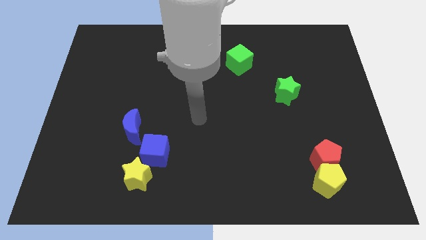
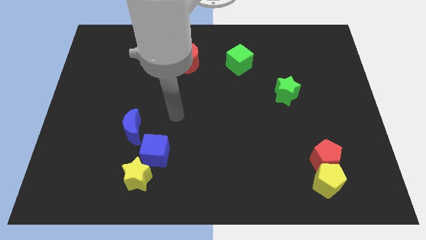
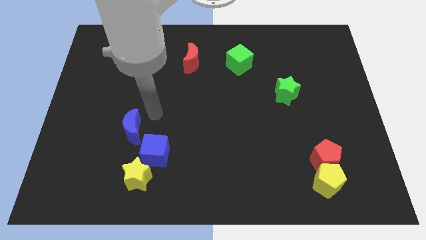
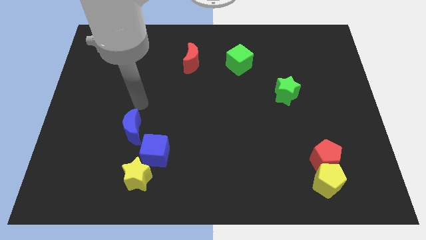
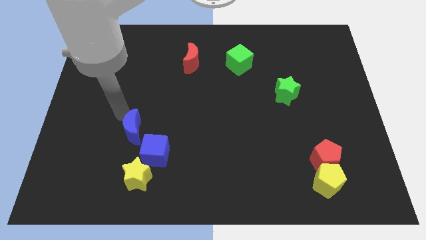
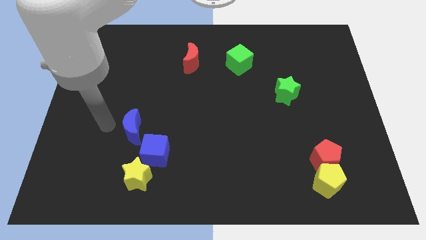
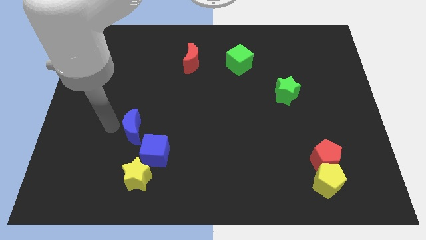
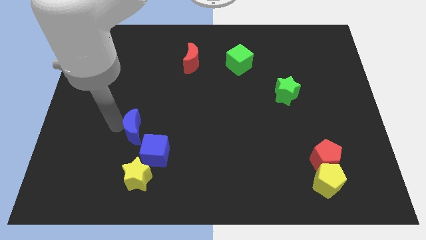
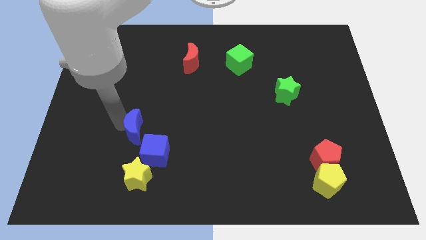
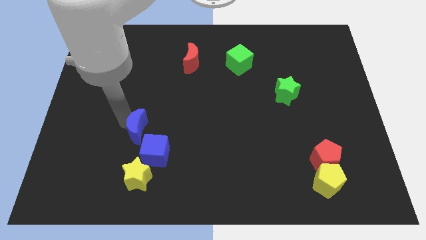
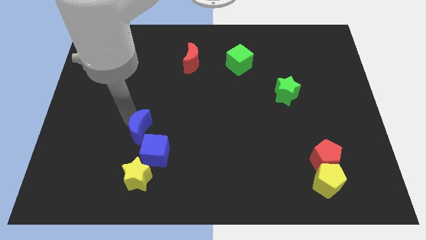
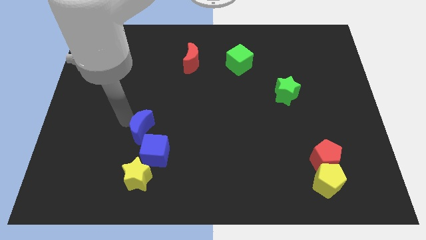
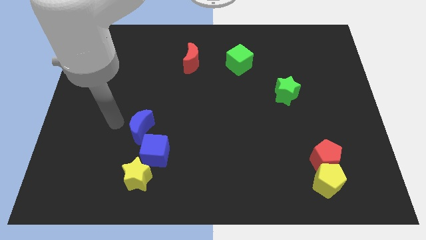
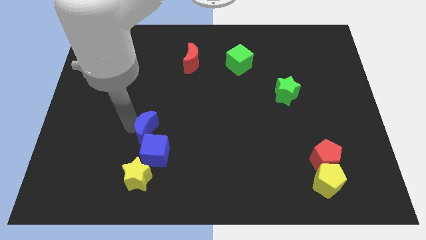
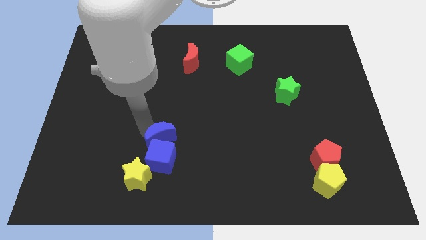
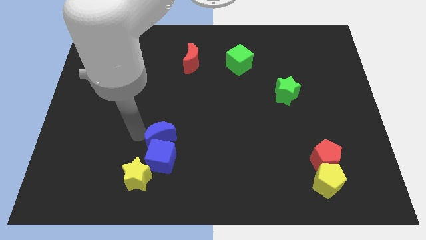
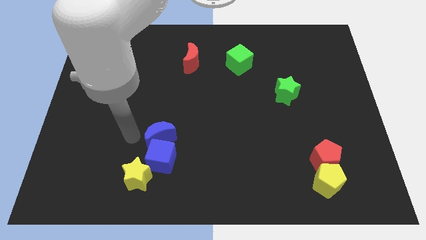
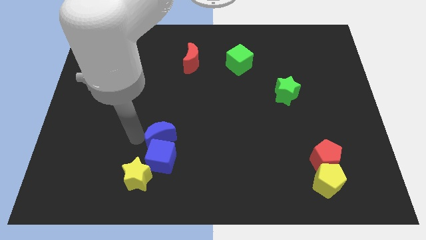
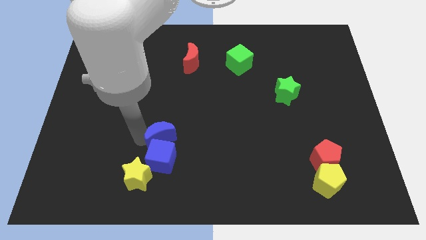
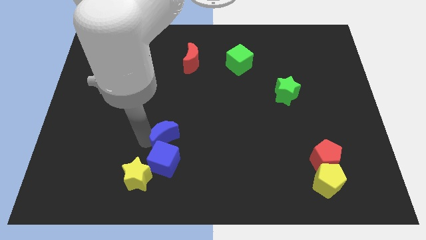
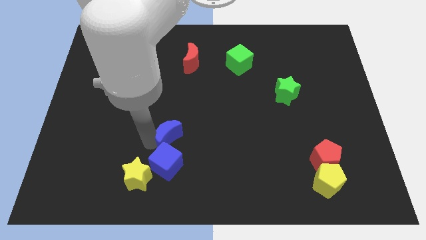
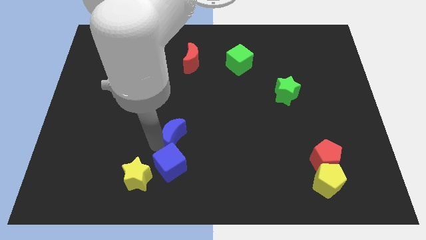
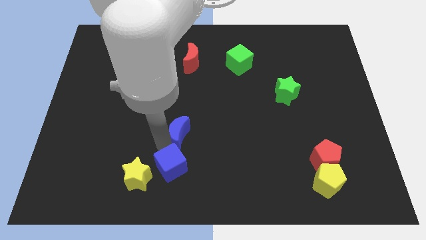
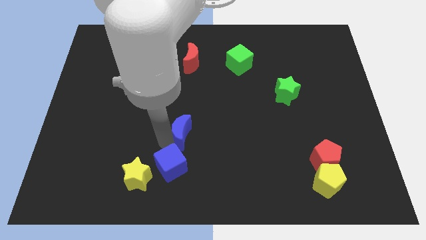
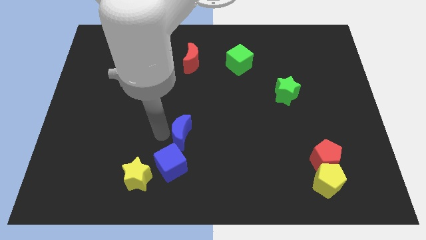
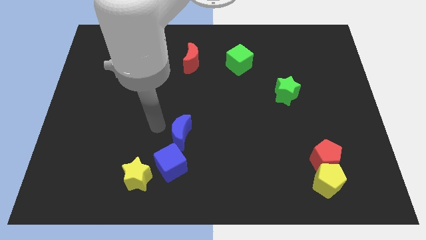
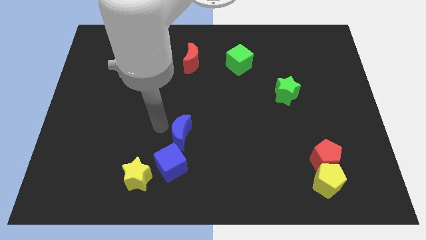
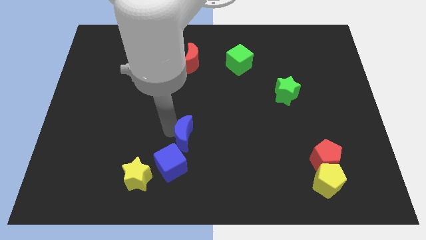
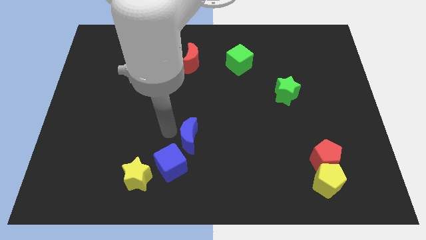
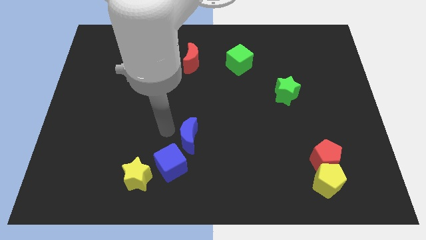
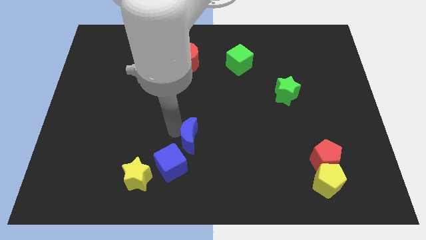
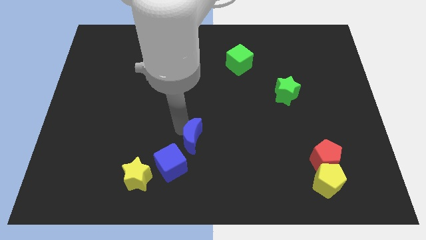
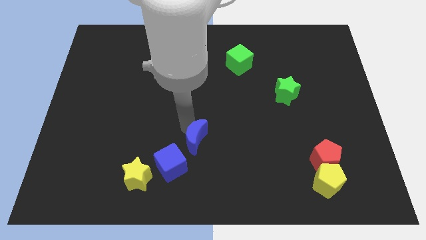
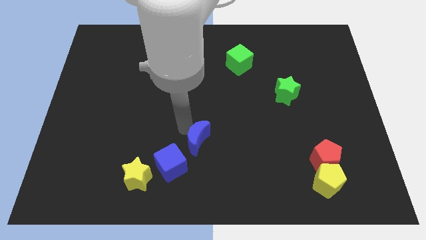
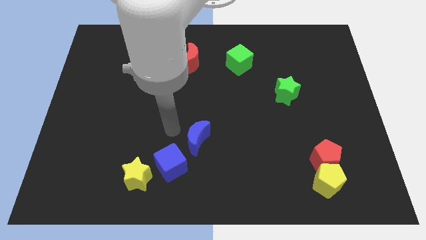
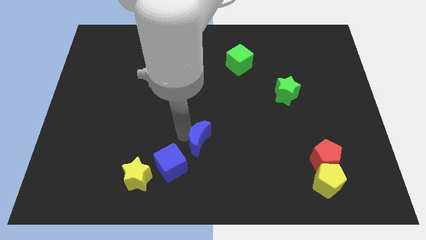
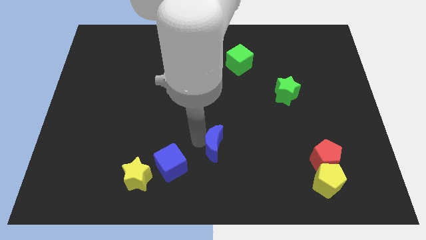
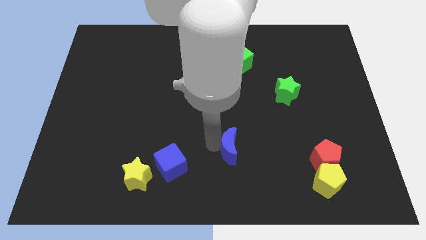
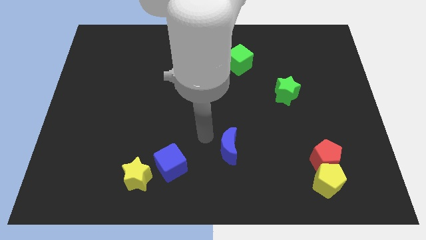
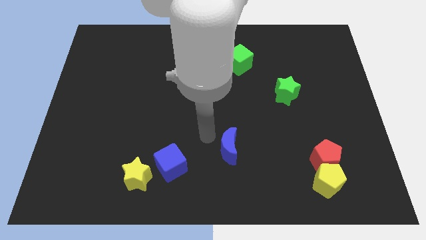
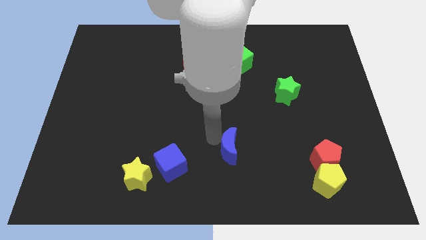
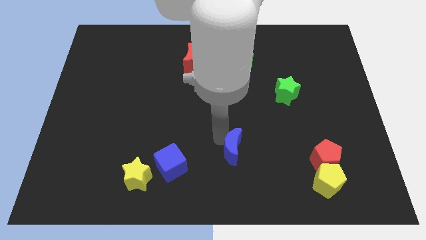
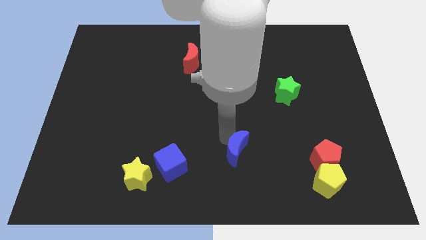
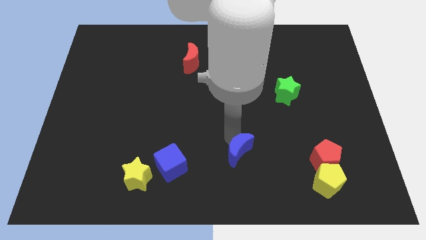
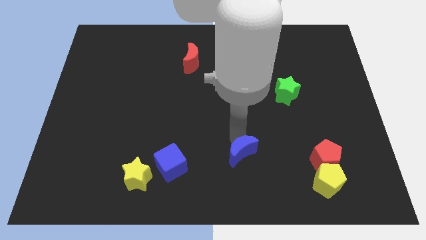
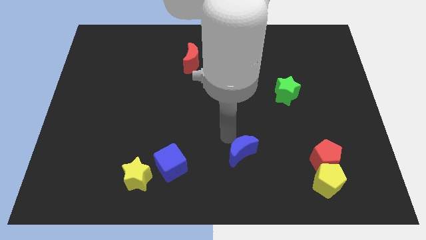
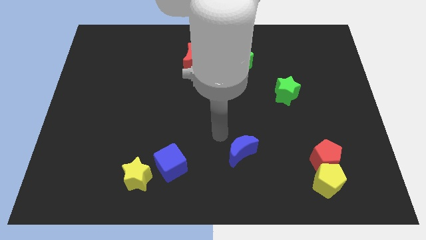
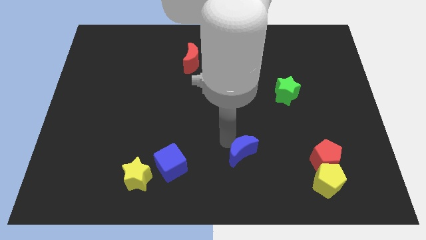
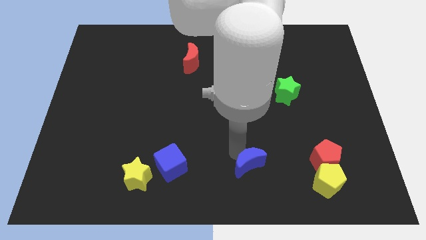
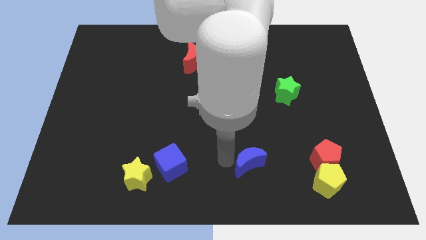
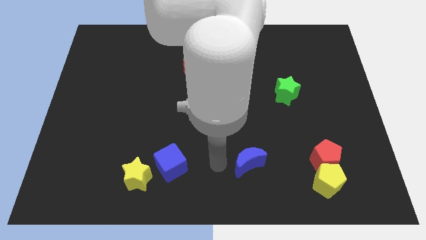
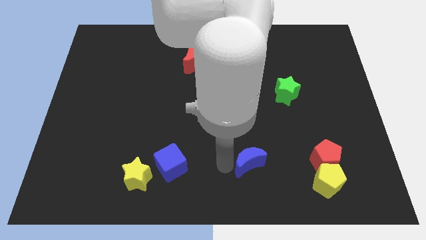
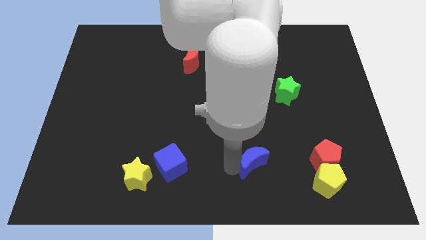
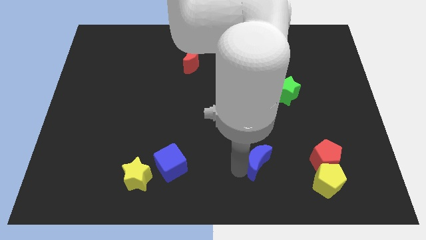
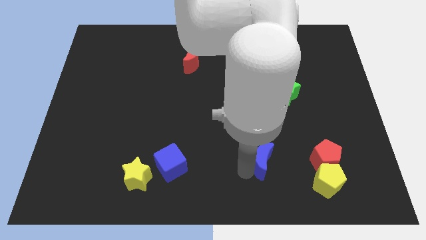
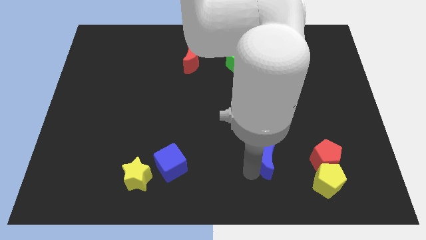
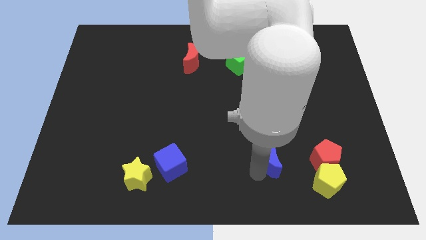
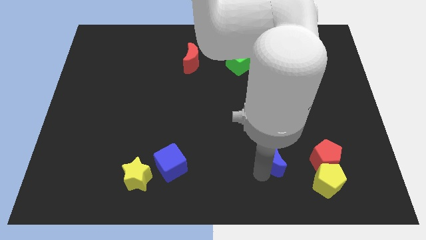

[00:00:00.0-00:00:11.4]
put the blue moon to the top left of the yellow pentagon

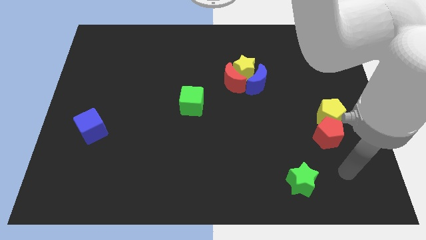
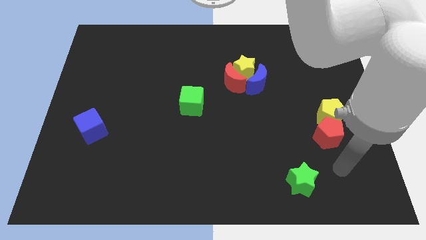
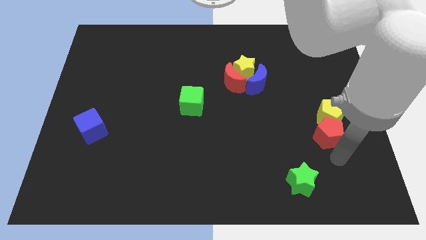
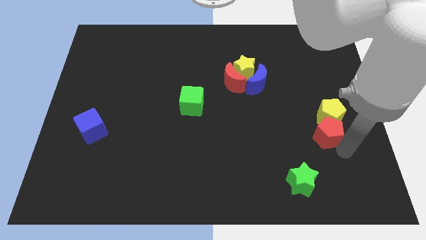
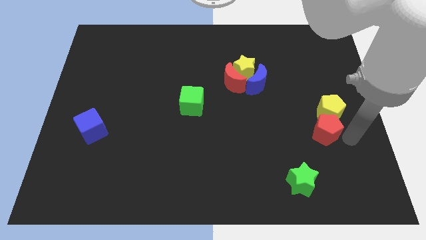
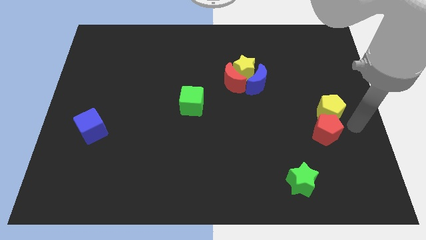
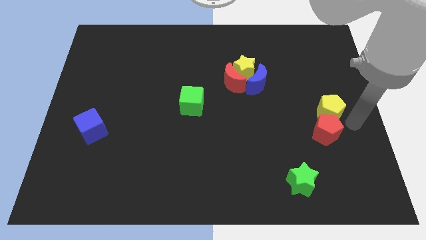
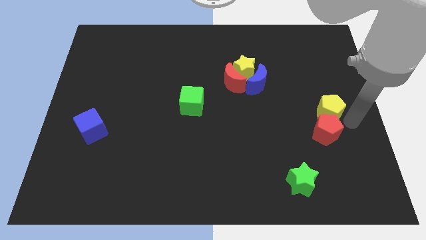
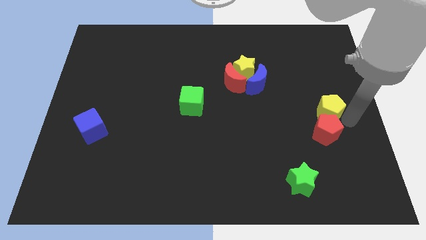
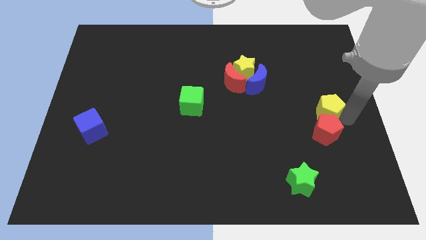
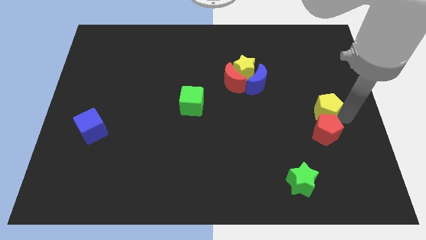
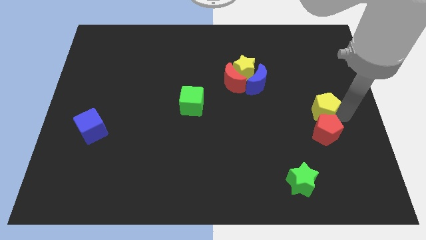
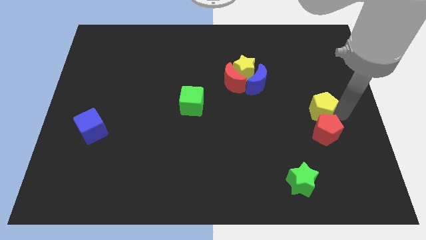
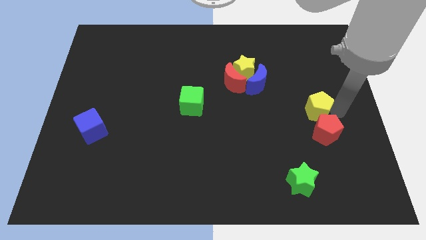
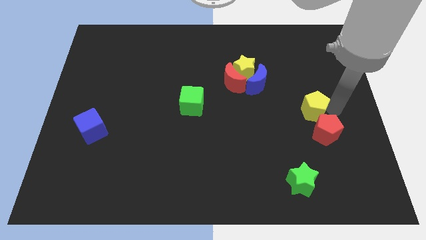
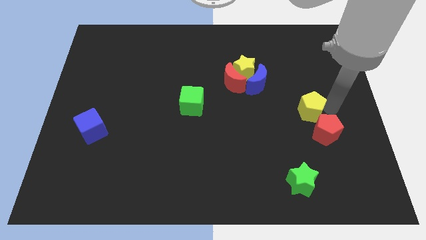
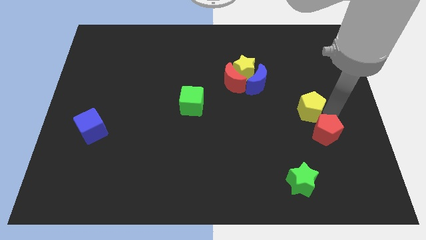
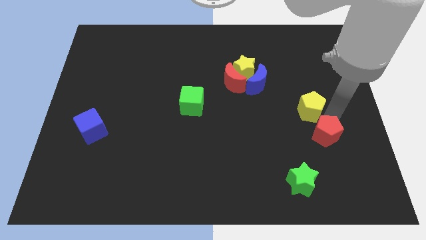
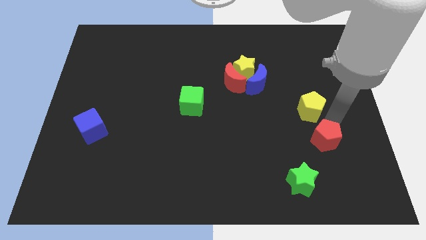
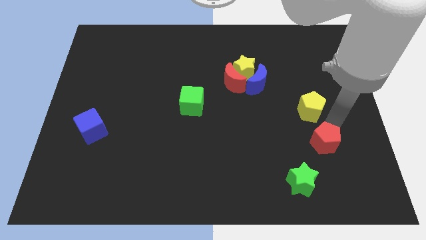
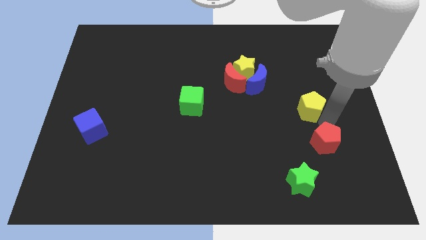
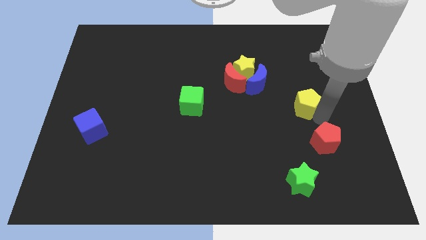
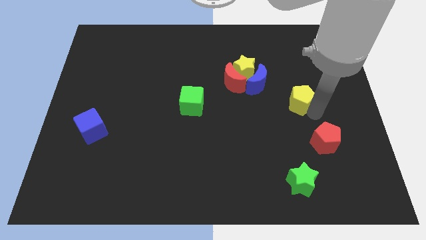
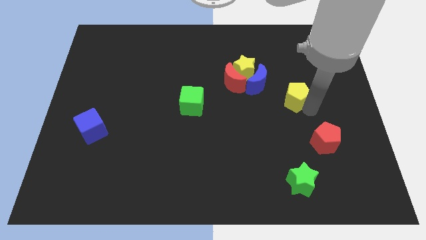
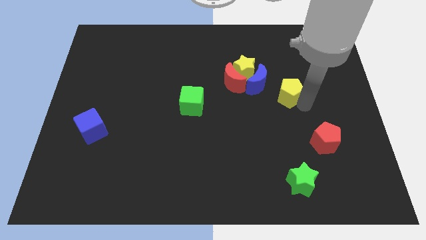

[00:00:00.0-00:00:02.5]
push the yellow pentagon just right of the red moon
